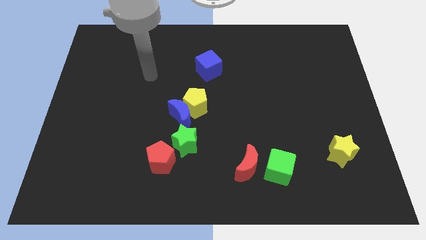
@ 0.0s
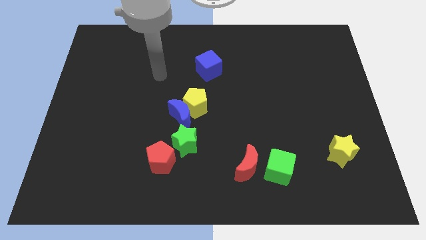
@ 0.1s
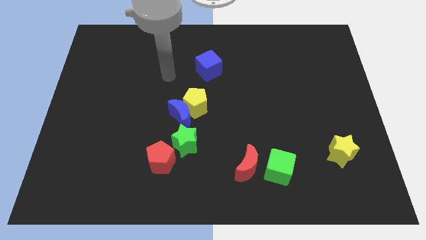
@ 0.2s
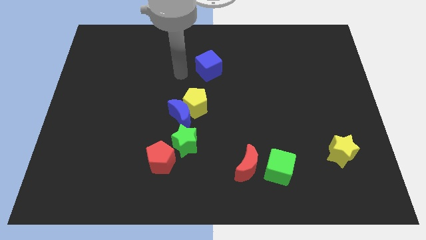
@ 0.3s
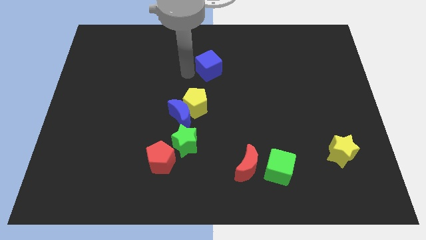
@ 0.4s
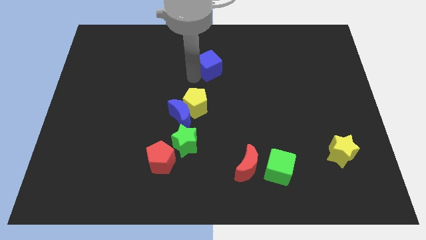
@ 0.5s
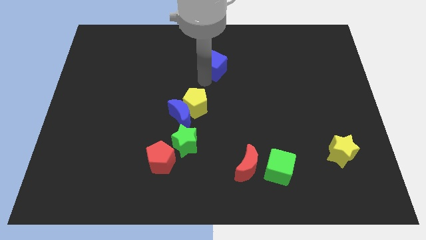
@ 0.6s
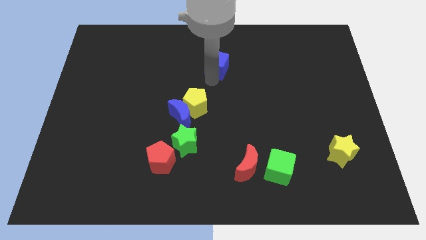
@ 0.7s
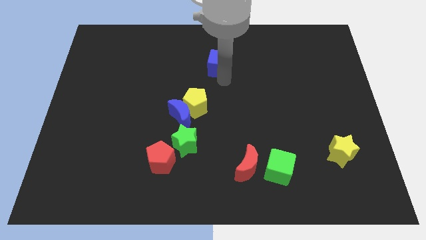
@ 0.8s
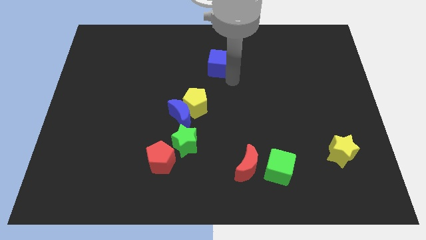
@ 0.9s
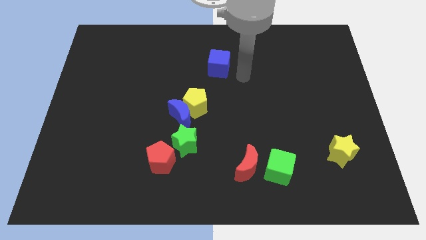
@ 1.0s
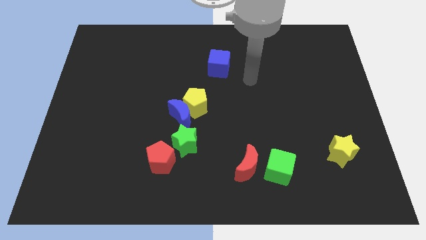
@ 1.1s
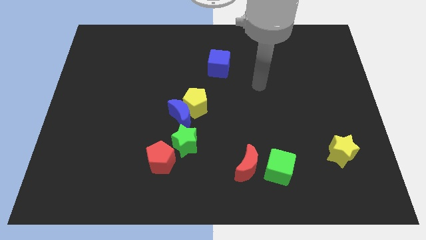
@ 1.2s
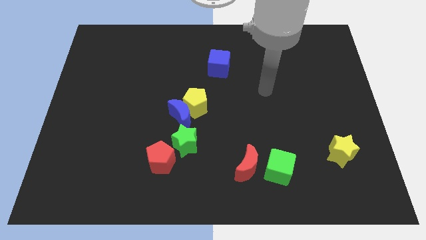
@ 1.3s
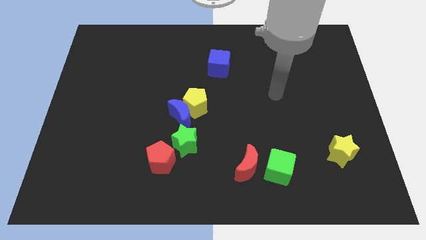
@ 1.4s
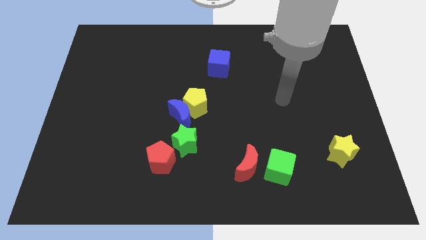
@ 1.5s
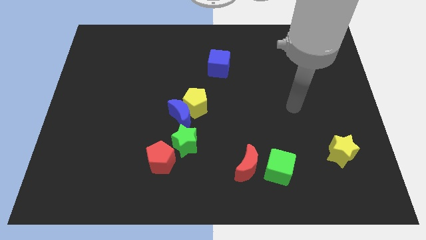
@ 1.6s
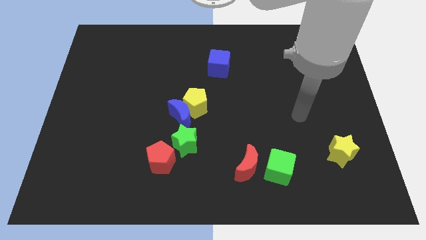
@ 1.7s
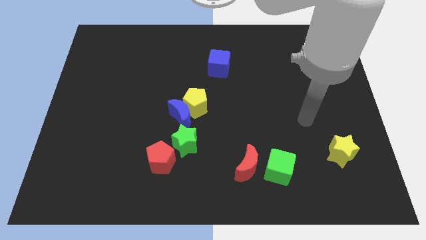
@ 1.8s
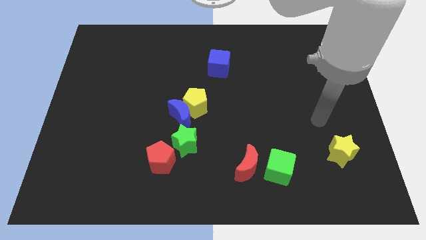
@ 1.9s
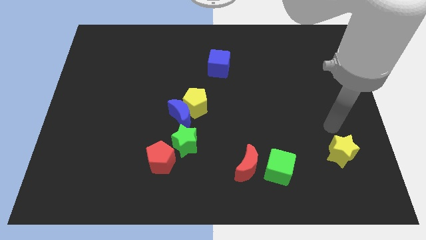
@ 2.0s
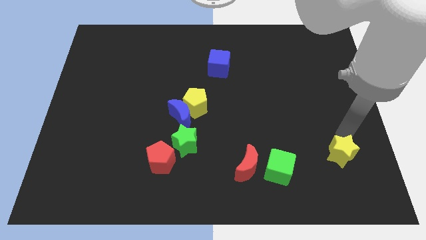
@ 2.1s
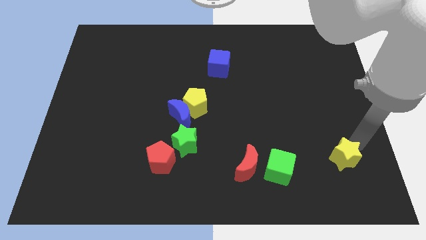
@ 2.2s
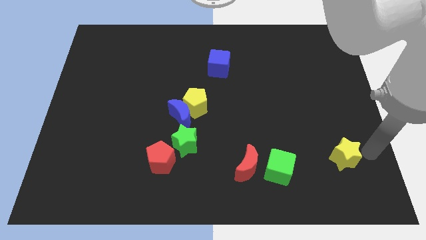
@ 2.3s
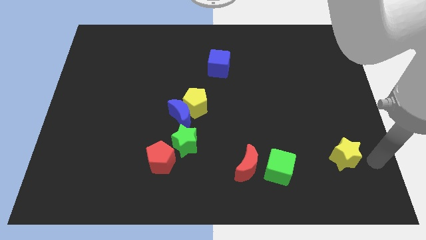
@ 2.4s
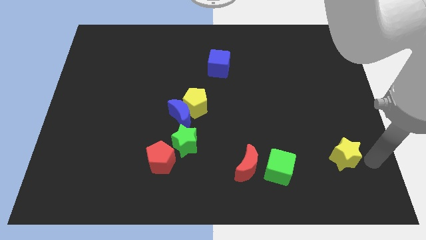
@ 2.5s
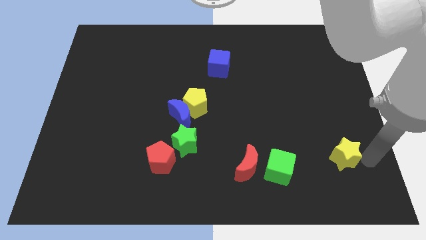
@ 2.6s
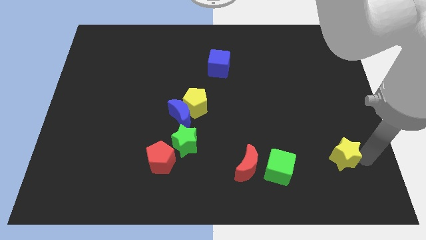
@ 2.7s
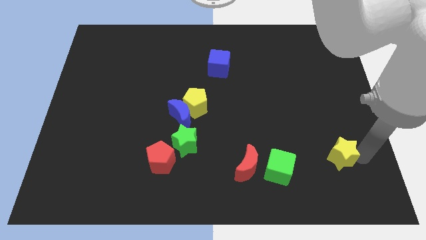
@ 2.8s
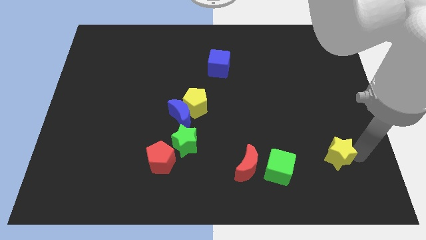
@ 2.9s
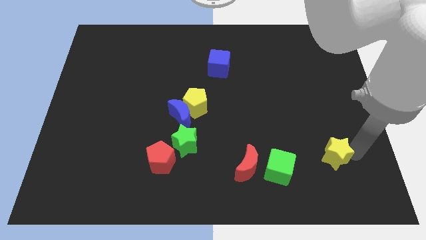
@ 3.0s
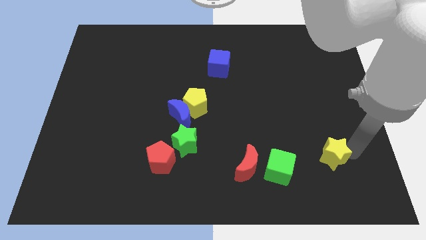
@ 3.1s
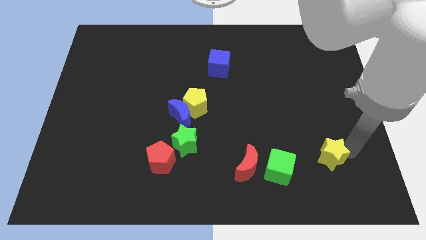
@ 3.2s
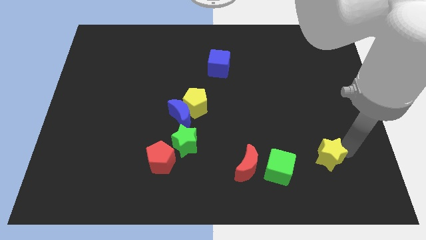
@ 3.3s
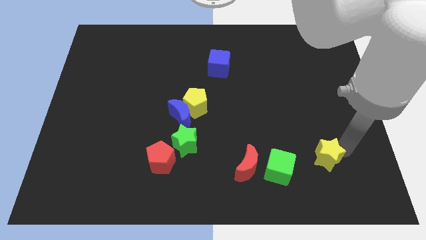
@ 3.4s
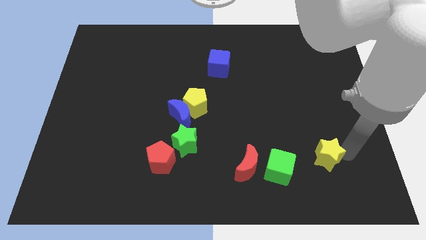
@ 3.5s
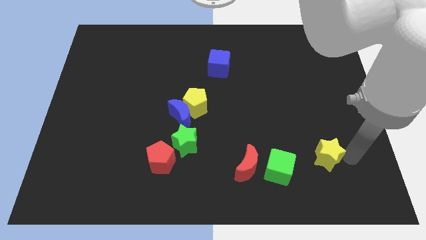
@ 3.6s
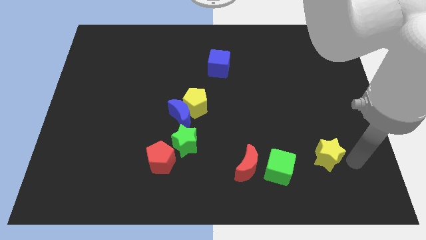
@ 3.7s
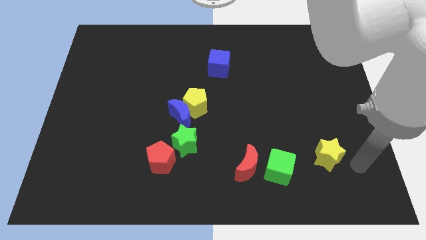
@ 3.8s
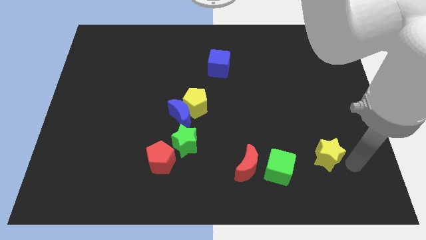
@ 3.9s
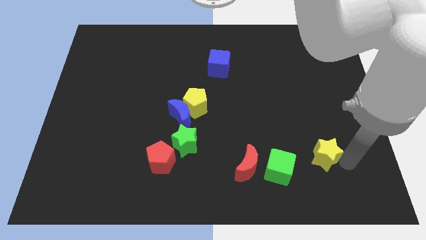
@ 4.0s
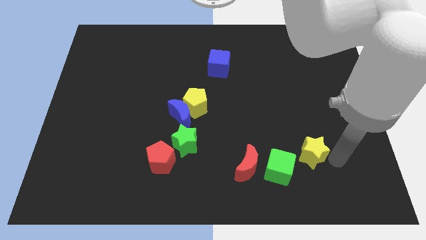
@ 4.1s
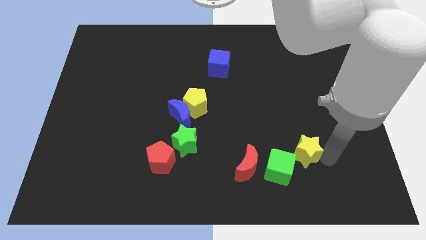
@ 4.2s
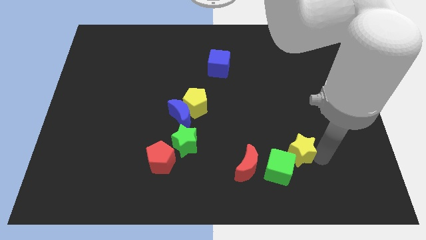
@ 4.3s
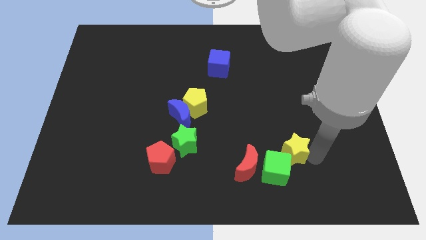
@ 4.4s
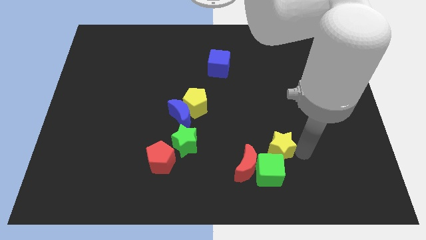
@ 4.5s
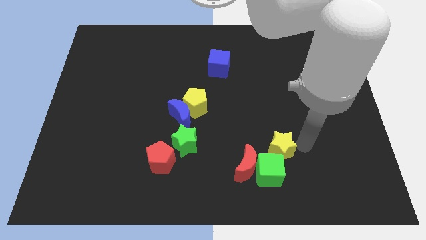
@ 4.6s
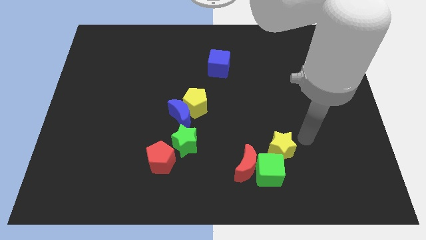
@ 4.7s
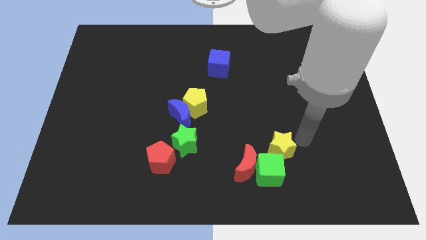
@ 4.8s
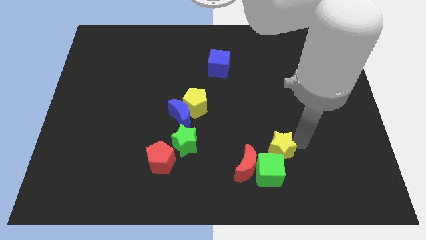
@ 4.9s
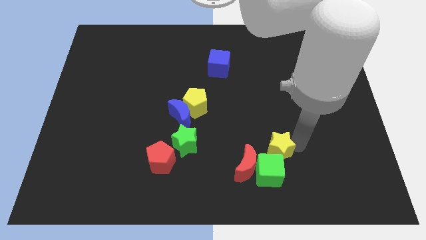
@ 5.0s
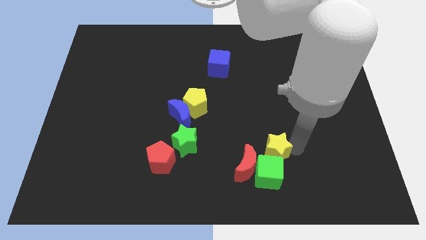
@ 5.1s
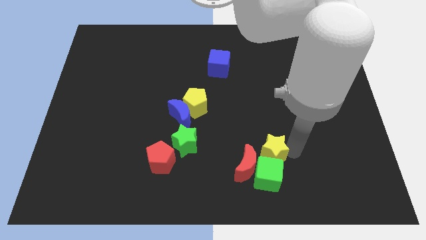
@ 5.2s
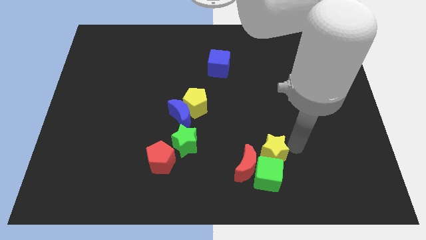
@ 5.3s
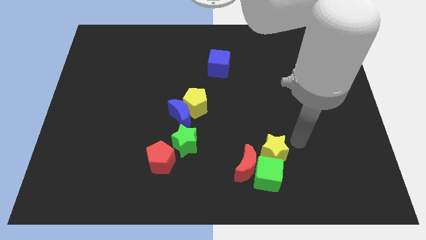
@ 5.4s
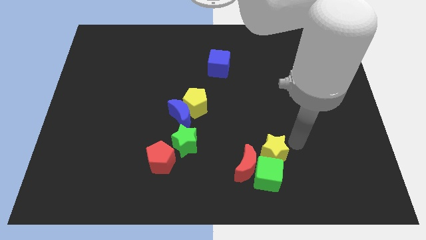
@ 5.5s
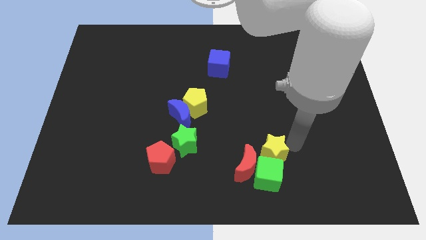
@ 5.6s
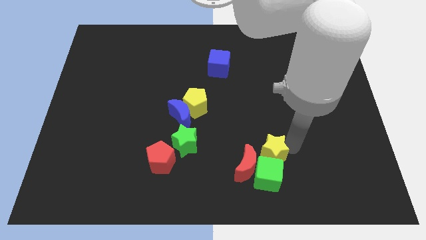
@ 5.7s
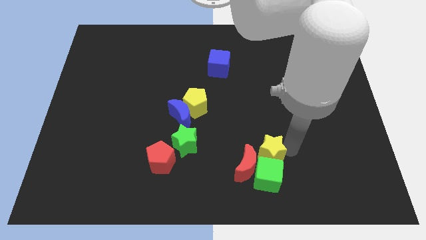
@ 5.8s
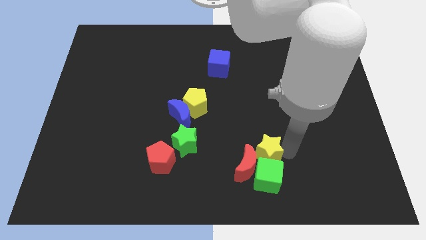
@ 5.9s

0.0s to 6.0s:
move the yellow star to the red moon
